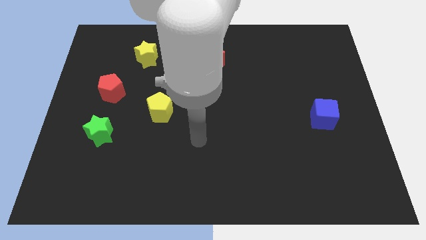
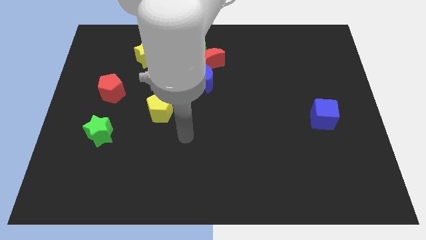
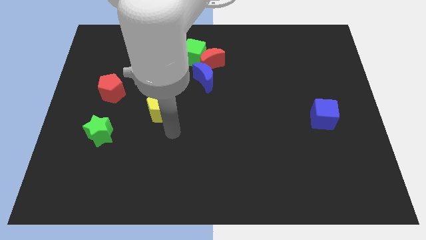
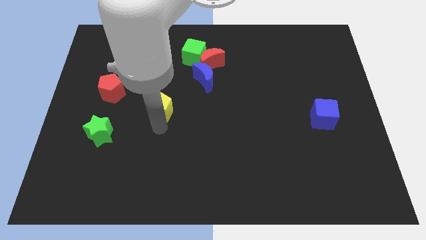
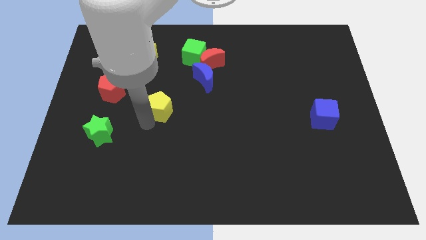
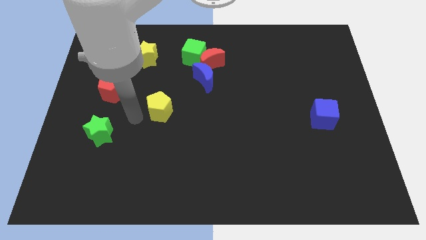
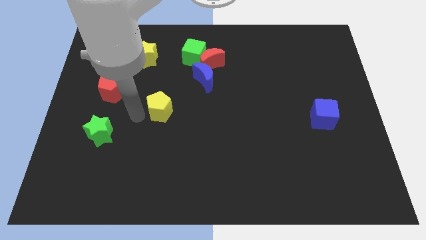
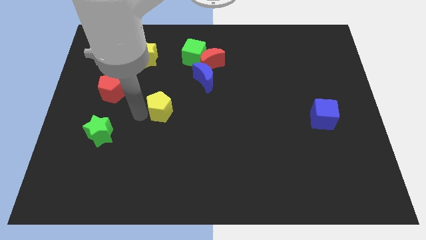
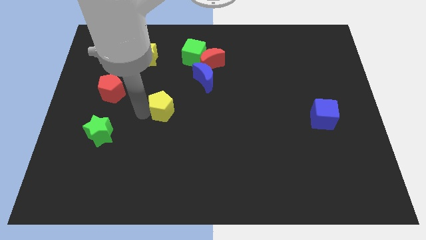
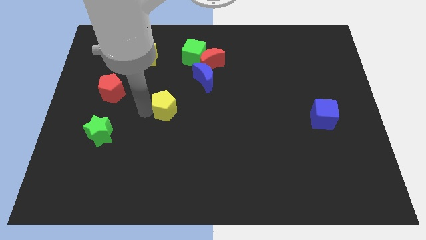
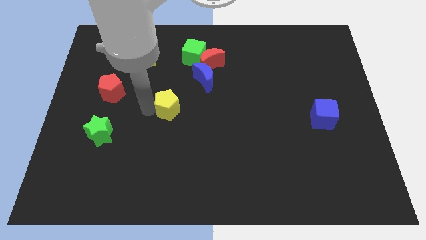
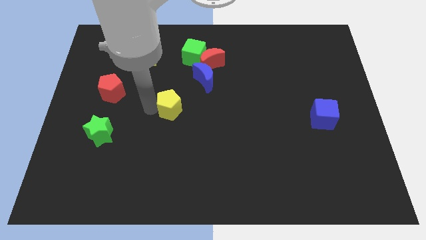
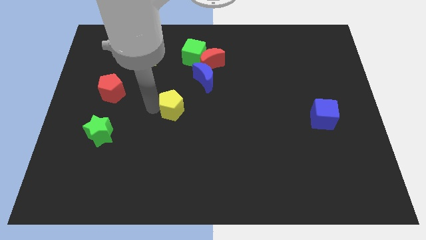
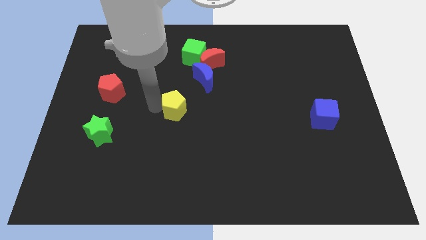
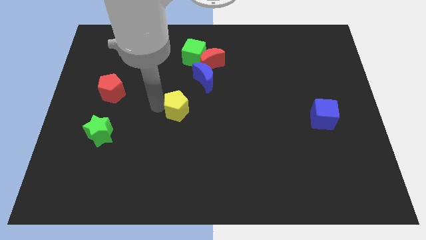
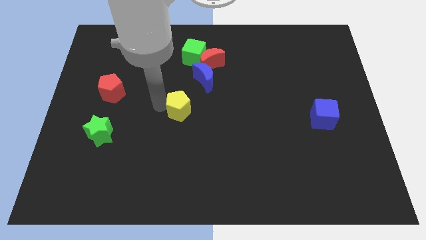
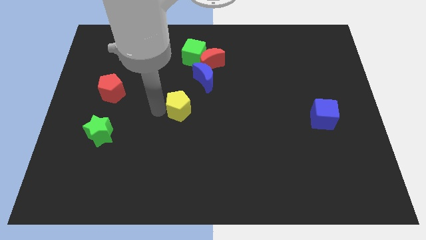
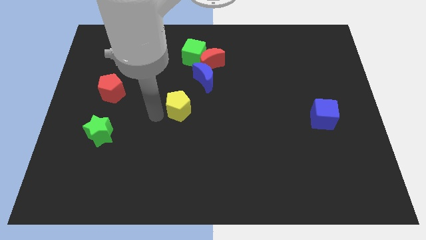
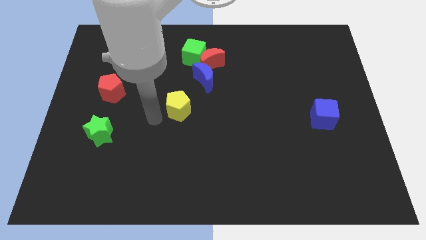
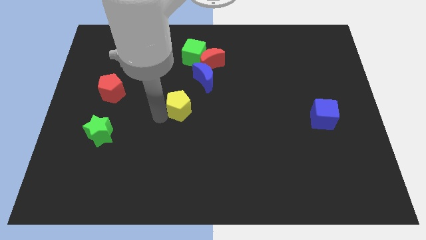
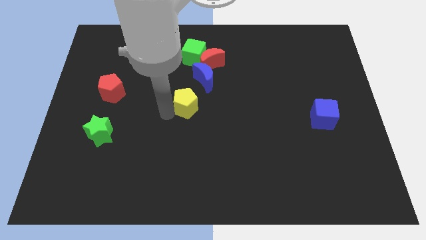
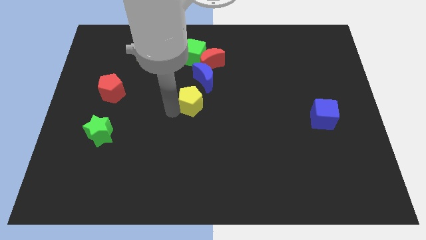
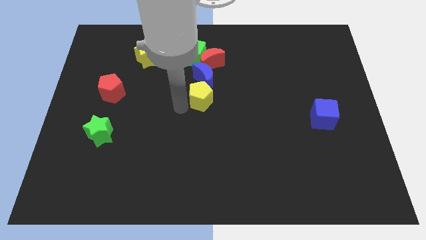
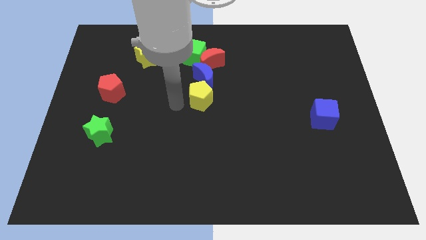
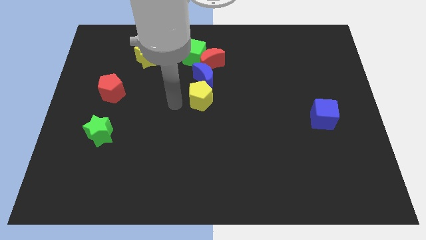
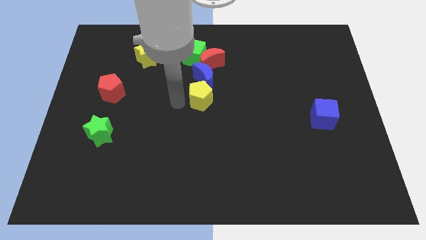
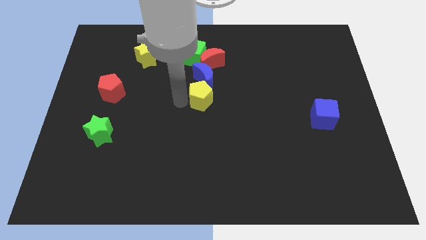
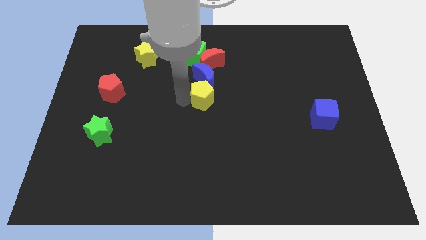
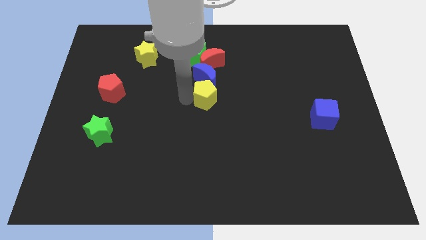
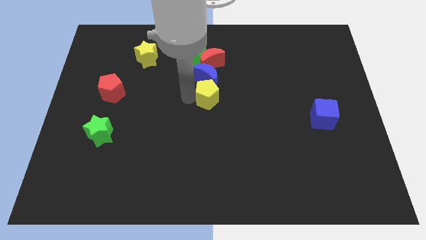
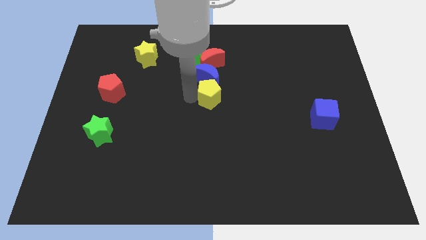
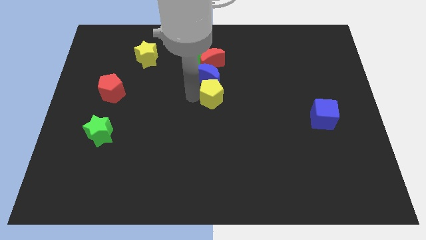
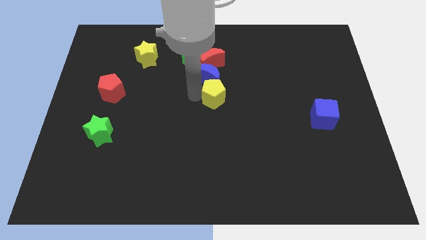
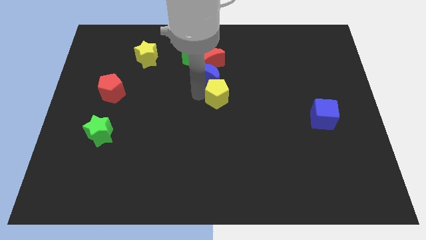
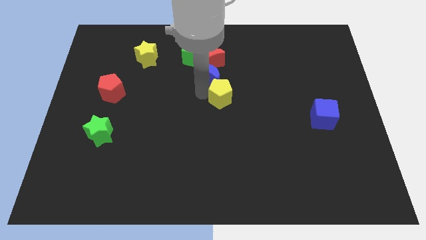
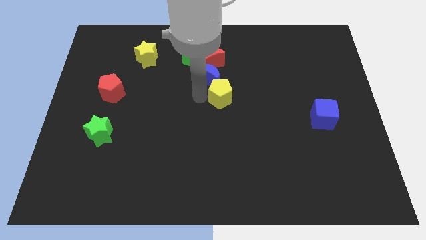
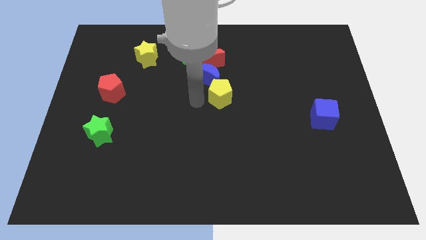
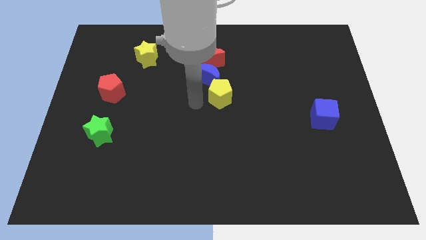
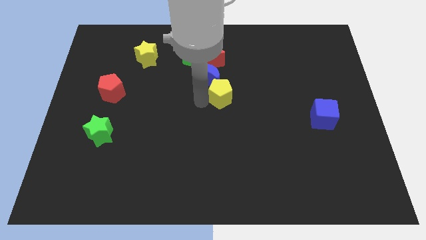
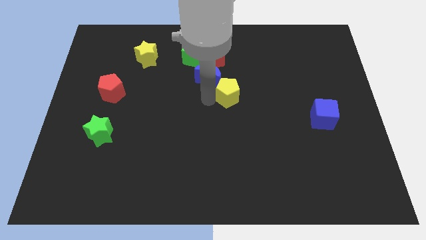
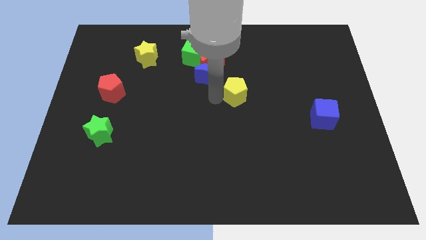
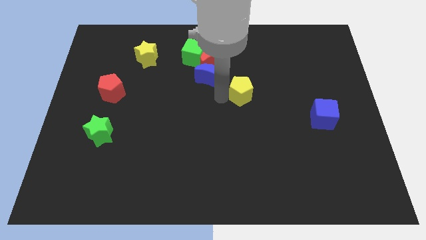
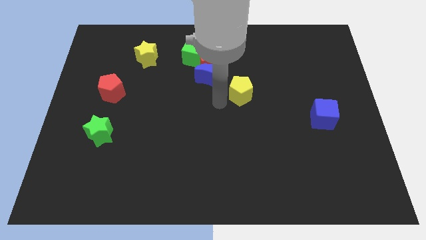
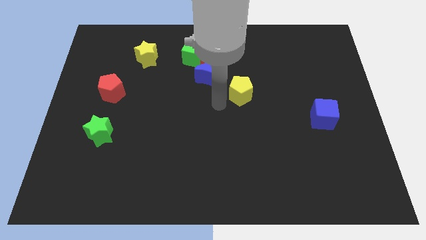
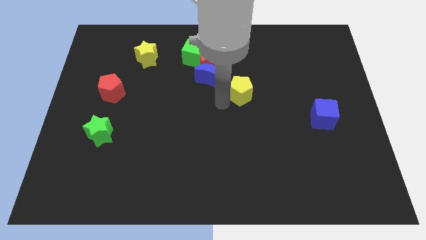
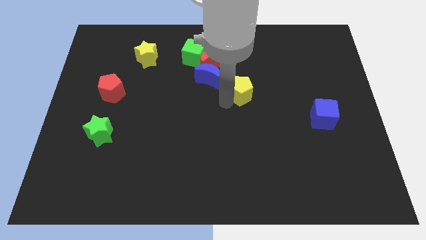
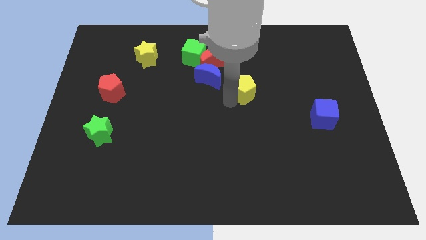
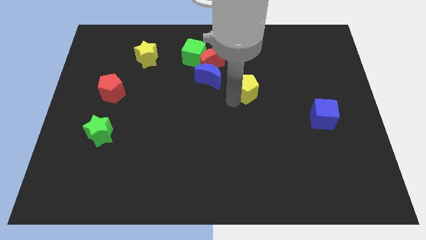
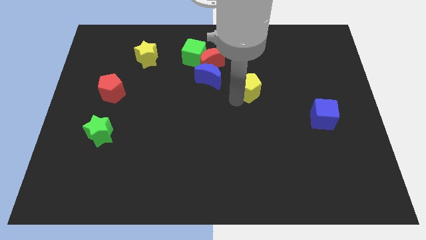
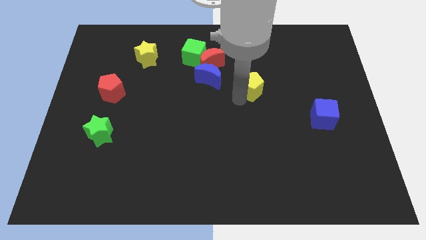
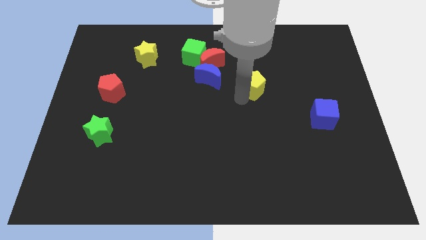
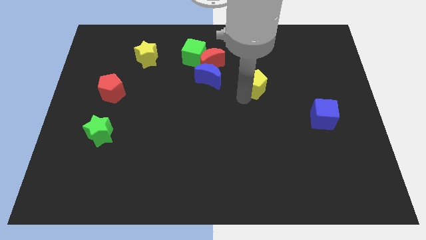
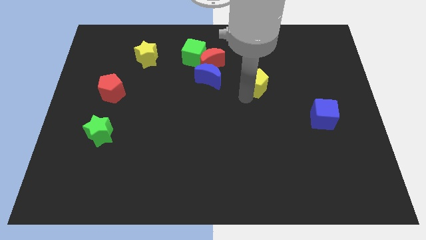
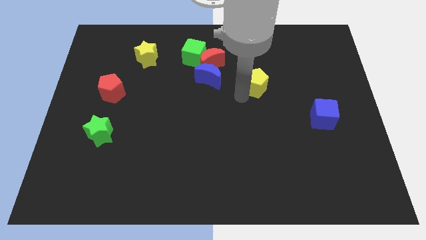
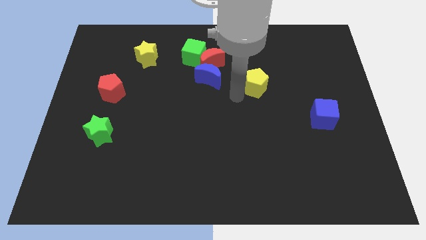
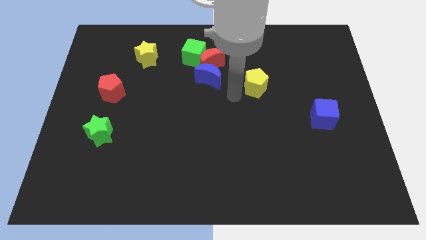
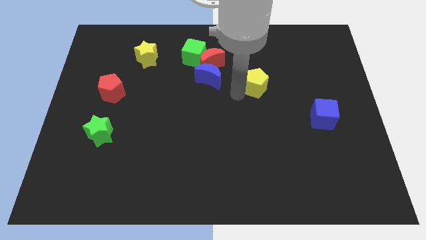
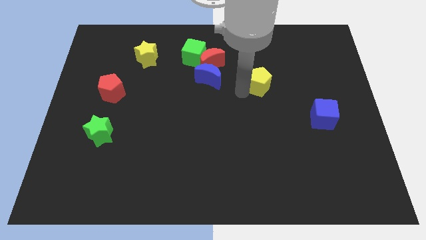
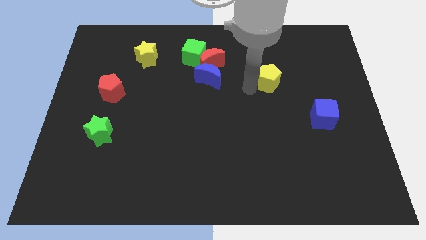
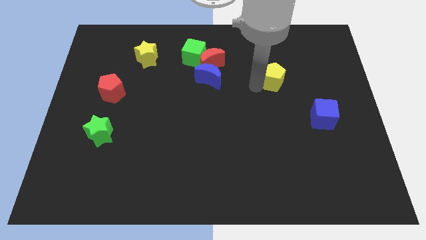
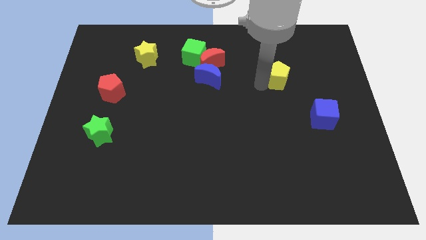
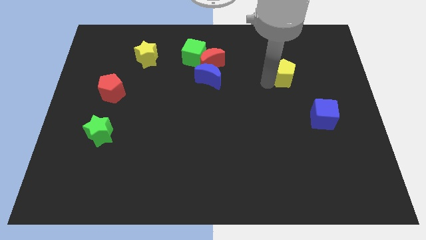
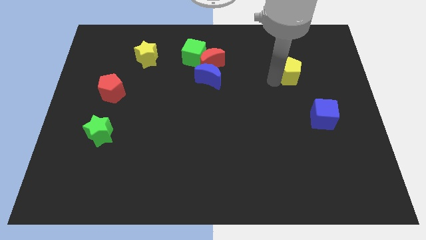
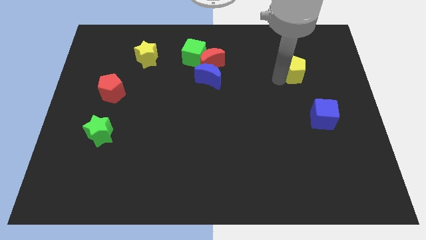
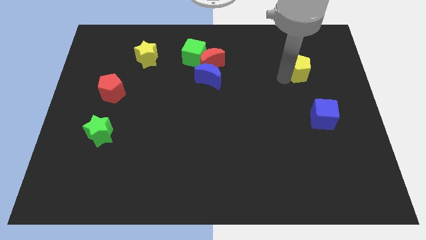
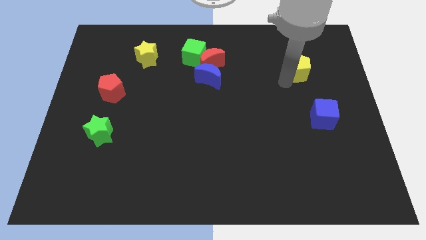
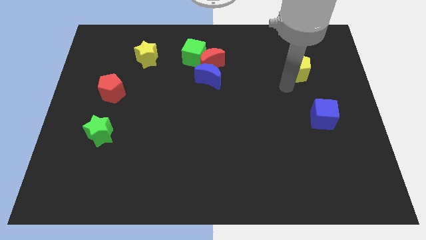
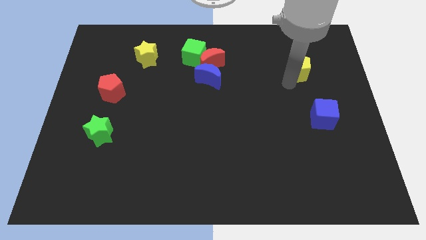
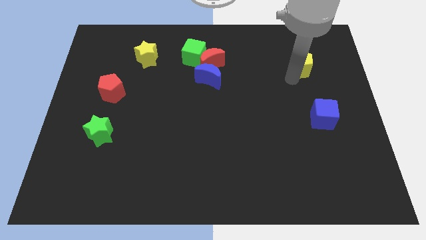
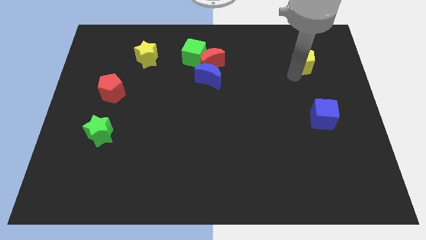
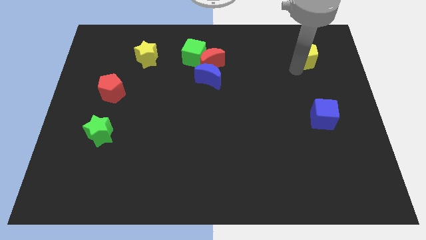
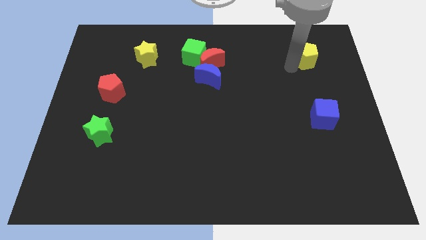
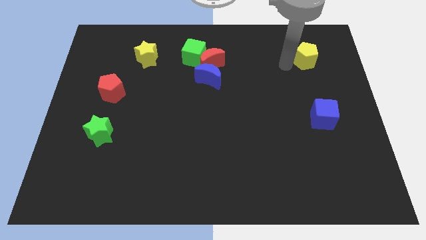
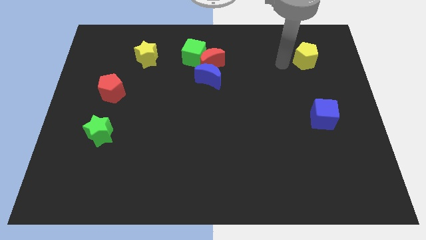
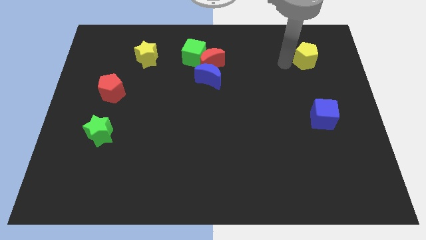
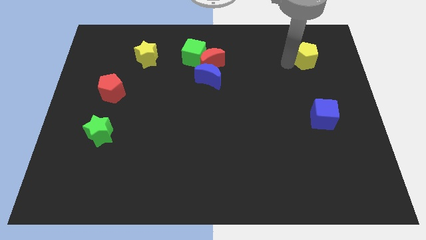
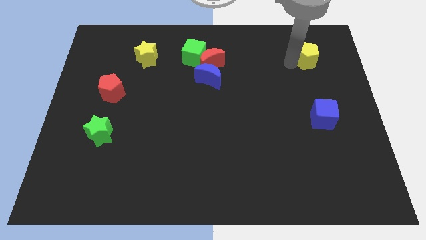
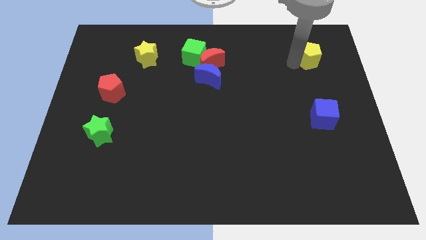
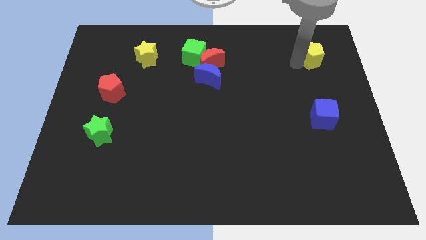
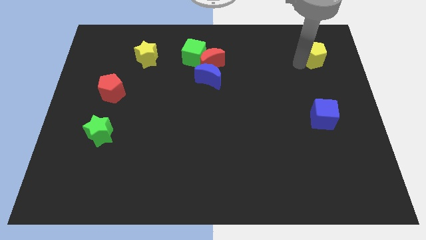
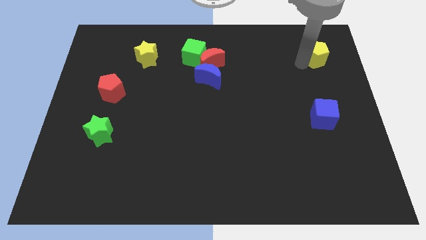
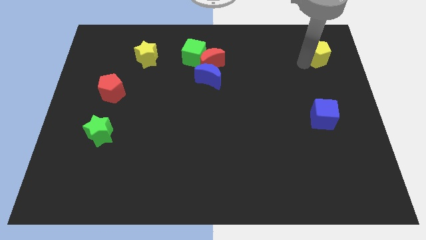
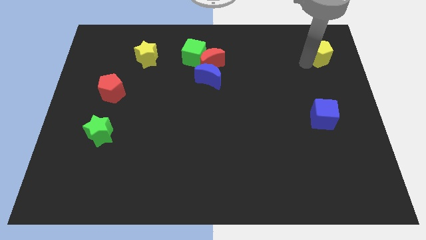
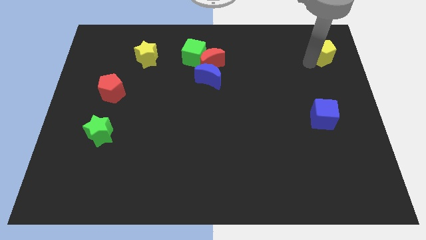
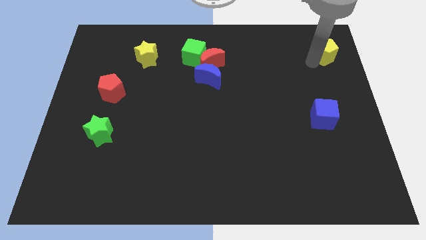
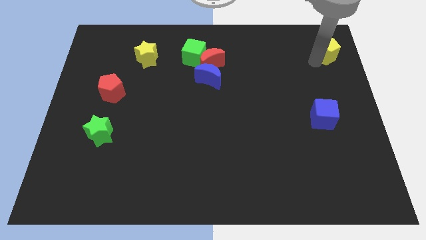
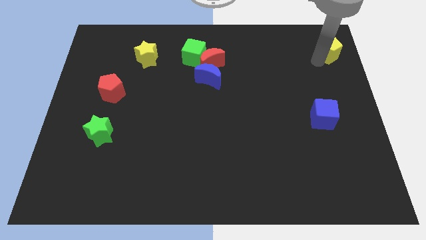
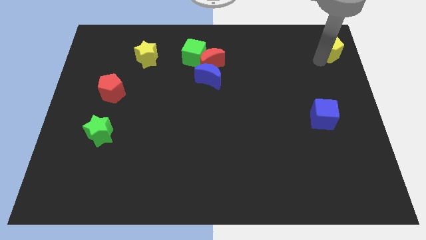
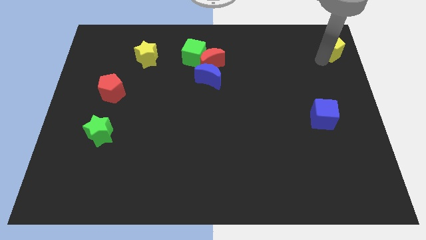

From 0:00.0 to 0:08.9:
push the yellow pentagon to the top right corner
